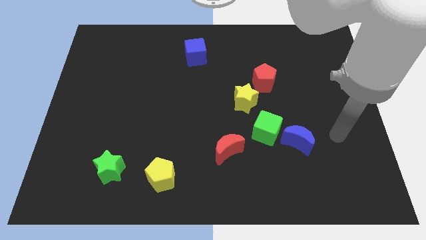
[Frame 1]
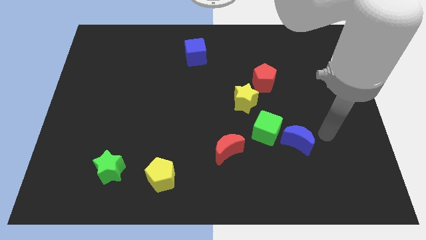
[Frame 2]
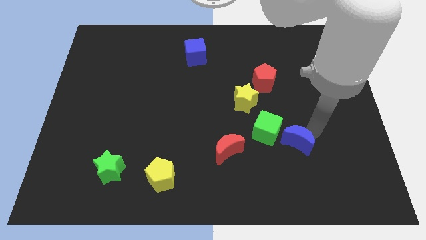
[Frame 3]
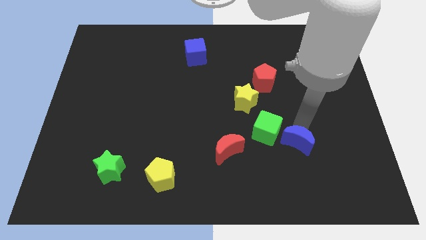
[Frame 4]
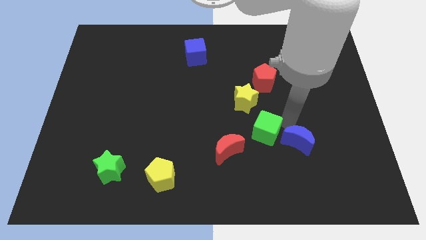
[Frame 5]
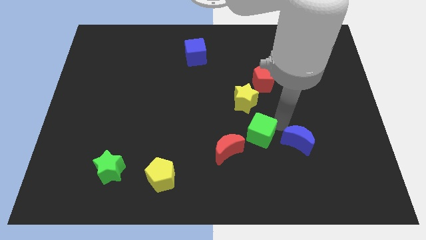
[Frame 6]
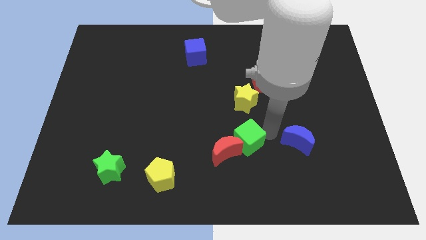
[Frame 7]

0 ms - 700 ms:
pull the blue moon apart from the green cube

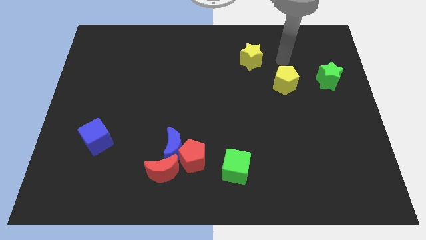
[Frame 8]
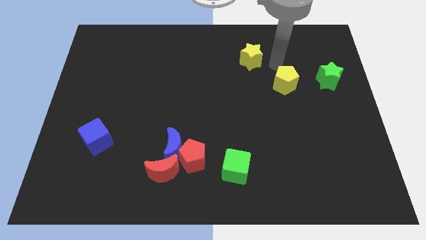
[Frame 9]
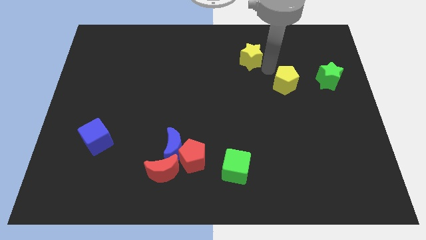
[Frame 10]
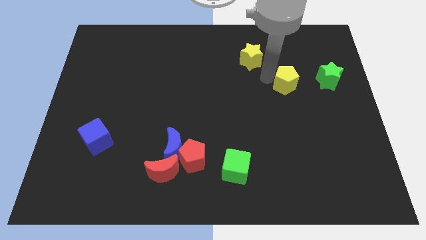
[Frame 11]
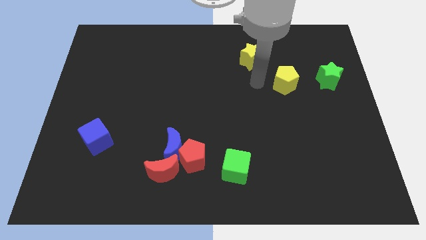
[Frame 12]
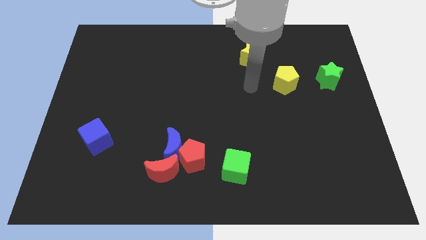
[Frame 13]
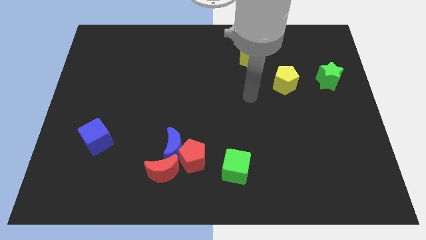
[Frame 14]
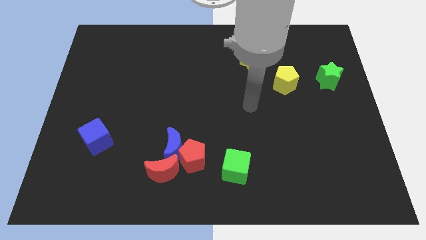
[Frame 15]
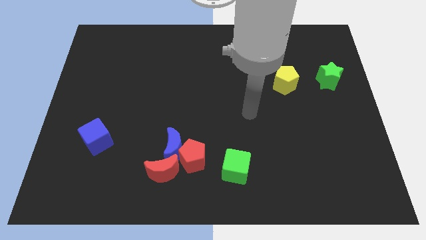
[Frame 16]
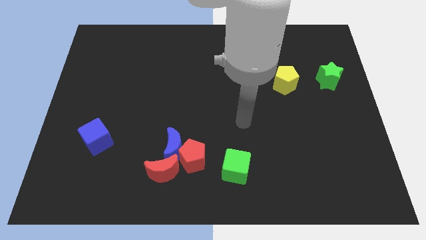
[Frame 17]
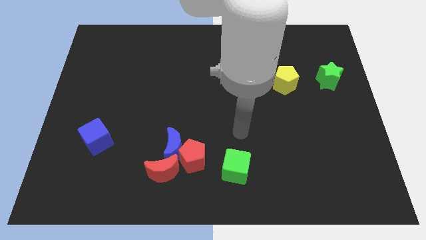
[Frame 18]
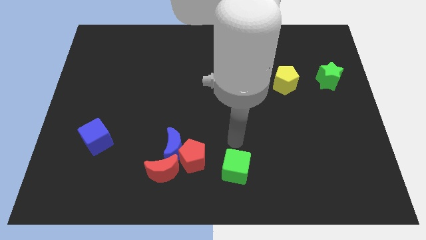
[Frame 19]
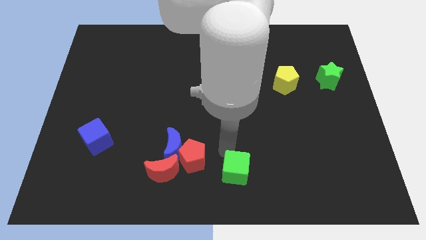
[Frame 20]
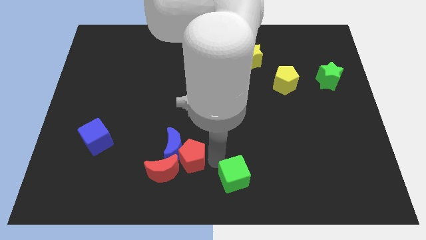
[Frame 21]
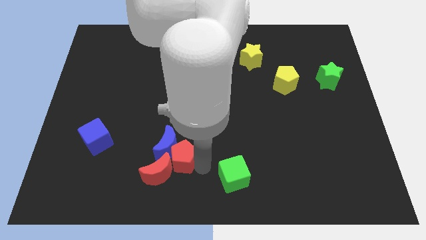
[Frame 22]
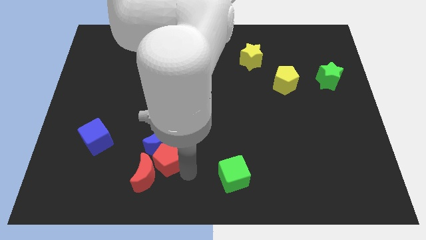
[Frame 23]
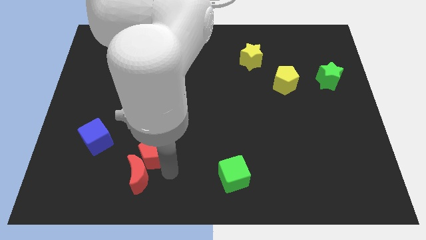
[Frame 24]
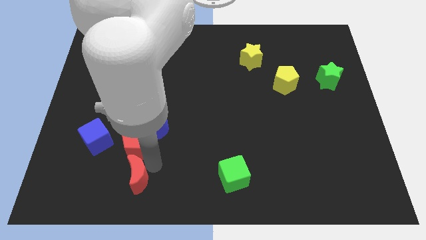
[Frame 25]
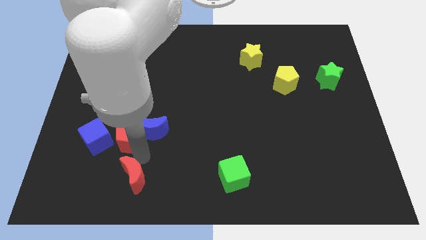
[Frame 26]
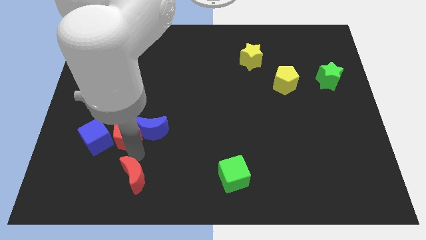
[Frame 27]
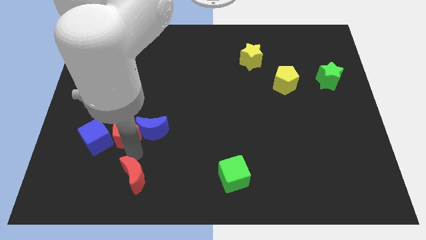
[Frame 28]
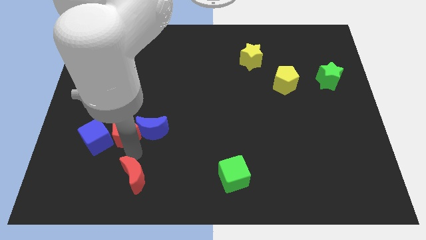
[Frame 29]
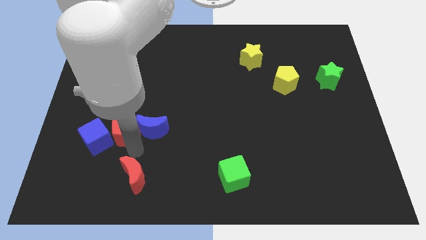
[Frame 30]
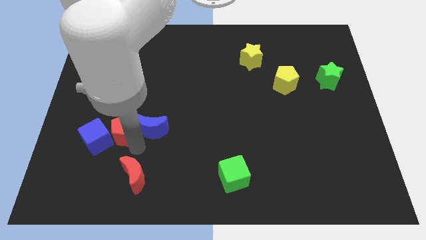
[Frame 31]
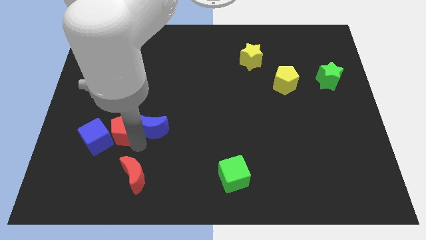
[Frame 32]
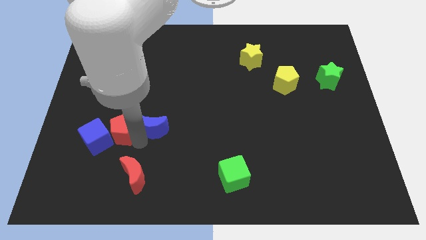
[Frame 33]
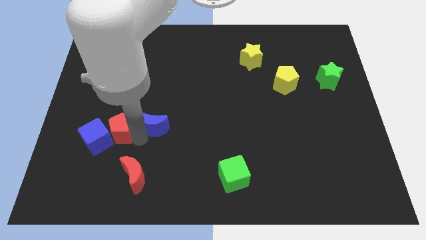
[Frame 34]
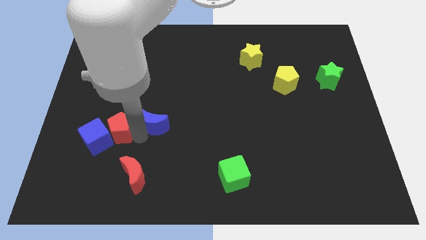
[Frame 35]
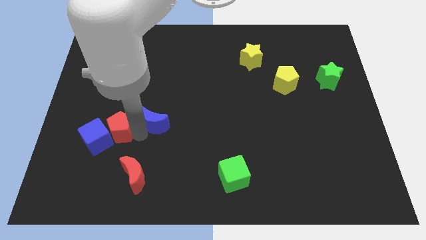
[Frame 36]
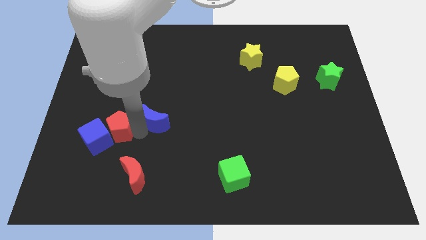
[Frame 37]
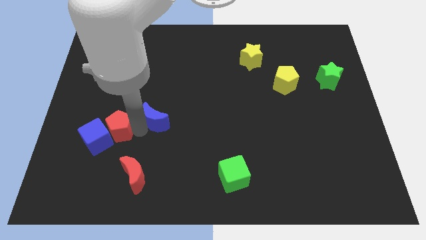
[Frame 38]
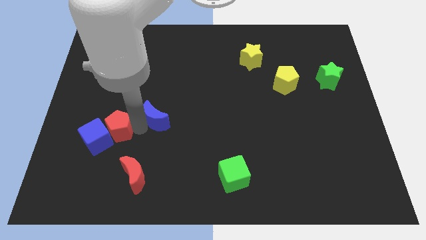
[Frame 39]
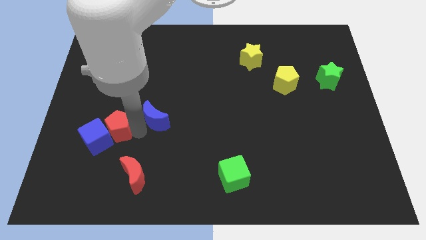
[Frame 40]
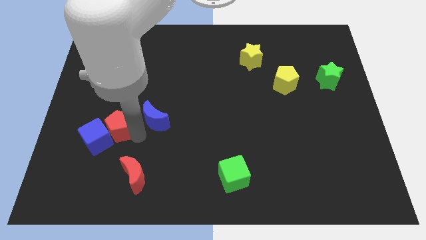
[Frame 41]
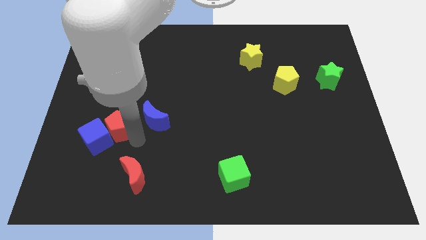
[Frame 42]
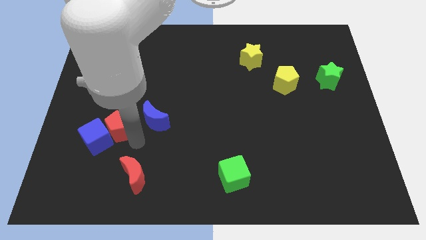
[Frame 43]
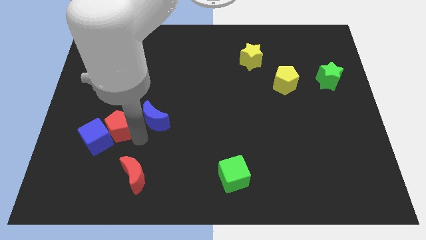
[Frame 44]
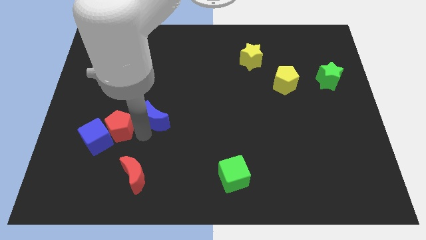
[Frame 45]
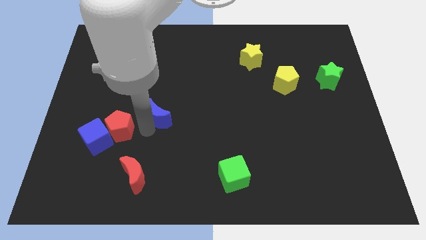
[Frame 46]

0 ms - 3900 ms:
separate the blue moon from the red pentagon and red moon

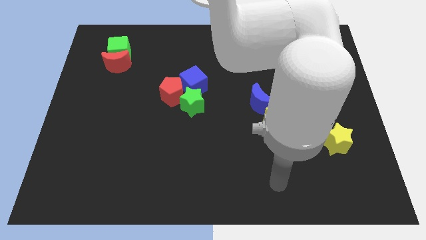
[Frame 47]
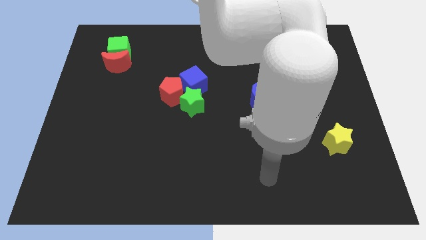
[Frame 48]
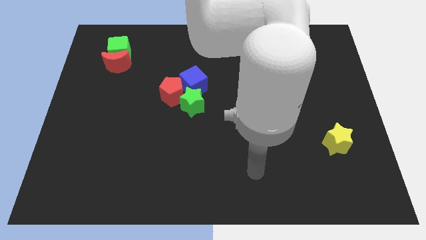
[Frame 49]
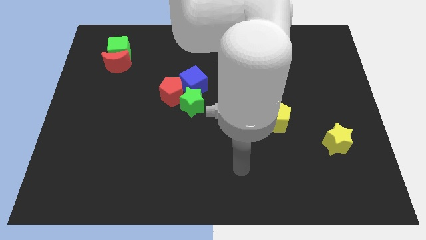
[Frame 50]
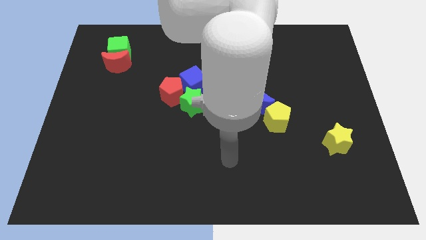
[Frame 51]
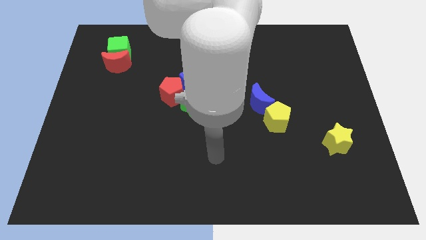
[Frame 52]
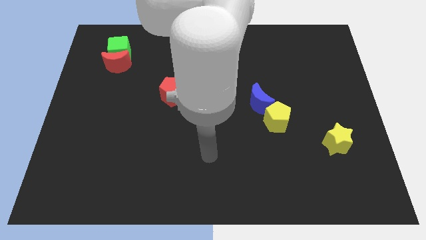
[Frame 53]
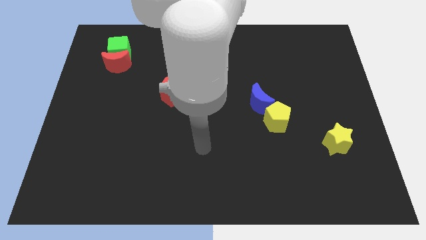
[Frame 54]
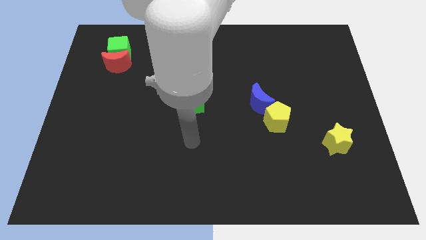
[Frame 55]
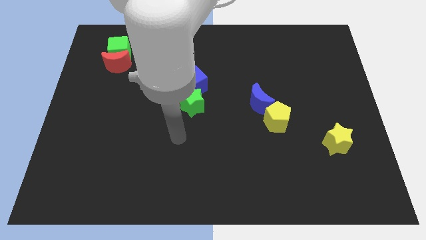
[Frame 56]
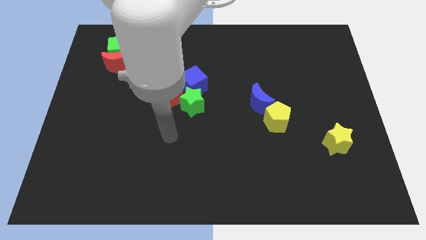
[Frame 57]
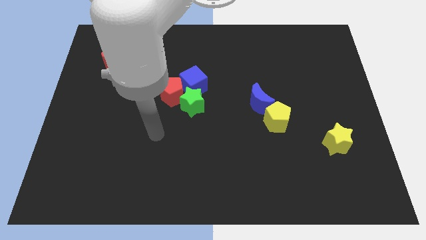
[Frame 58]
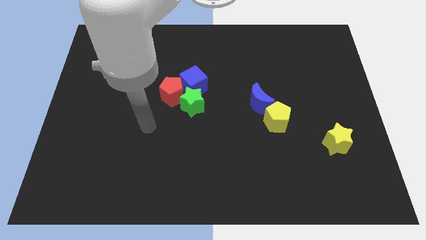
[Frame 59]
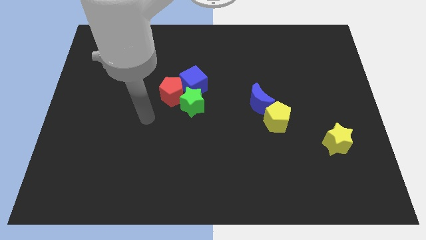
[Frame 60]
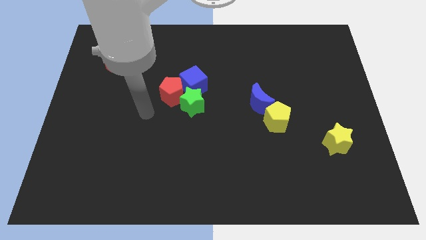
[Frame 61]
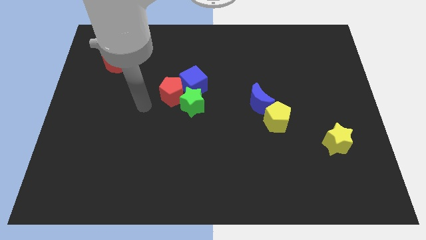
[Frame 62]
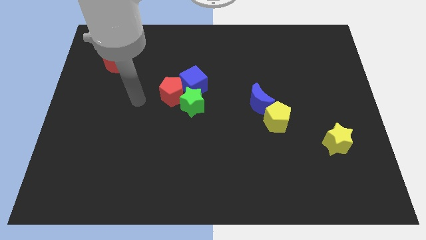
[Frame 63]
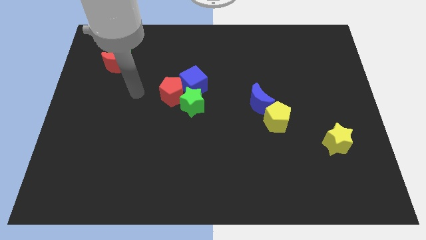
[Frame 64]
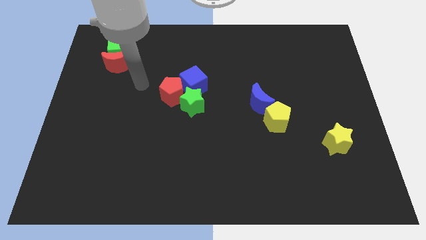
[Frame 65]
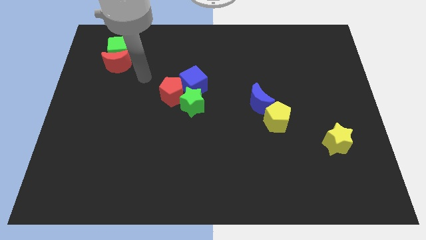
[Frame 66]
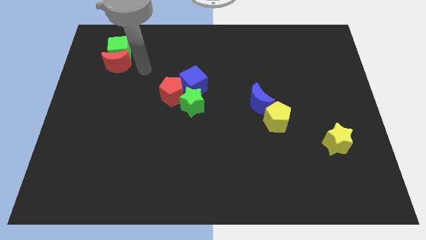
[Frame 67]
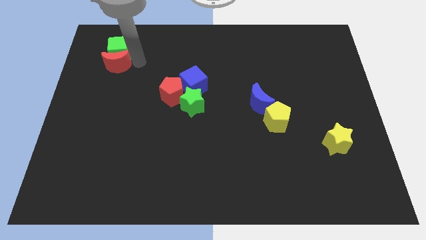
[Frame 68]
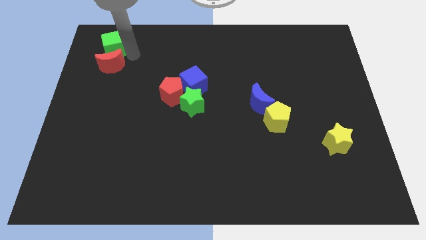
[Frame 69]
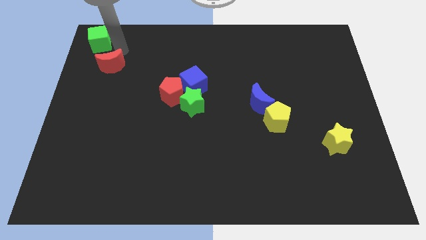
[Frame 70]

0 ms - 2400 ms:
pull the red moon apart from the green cube

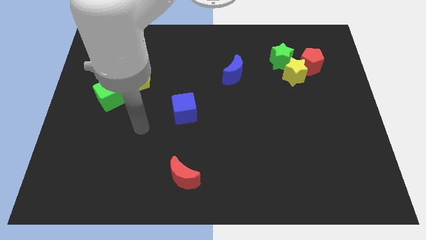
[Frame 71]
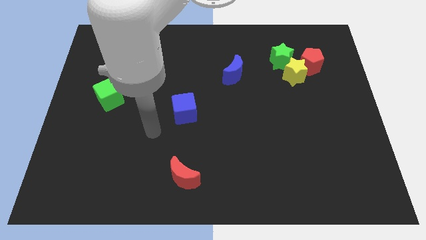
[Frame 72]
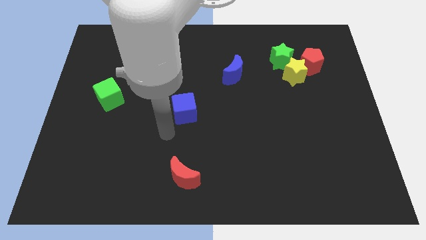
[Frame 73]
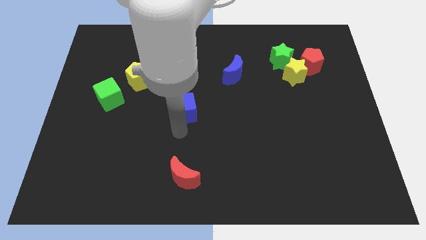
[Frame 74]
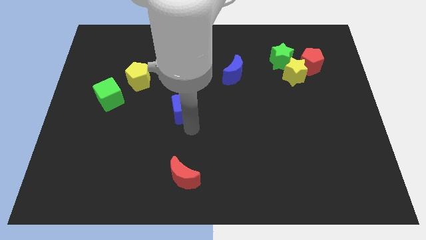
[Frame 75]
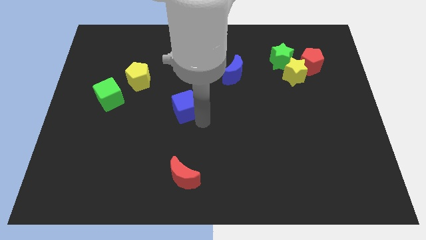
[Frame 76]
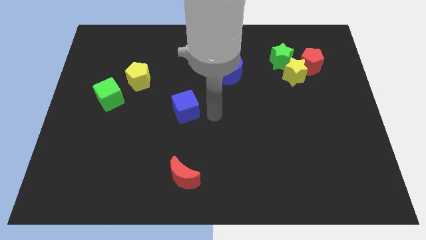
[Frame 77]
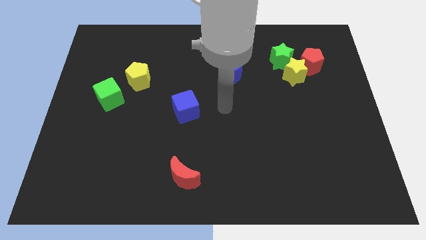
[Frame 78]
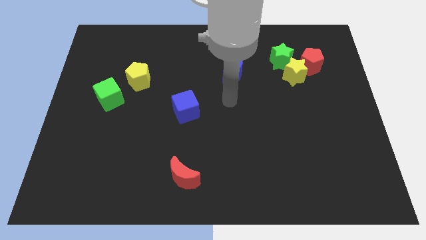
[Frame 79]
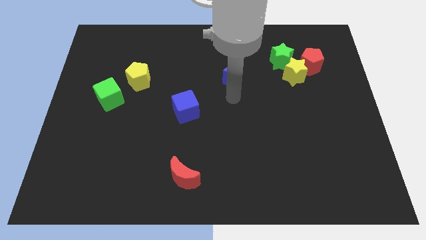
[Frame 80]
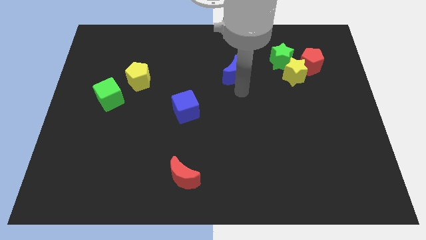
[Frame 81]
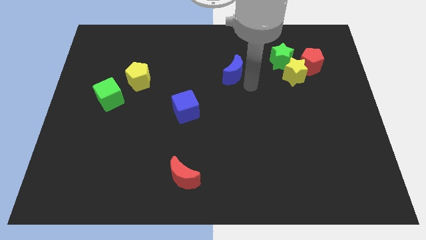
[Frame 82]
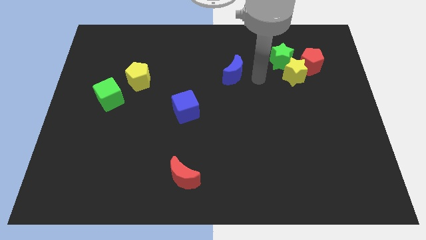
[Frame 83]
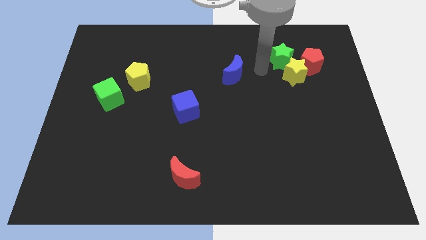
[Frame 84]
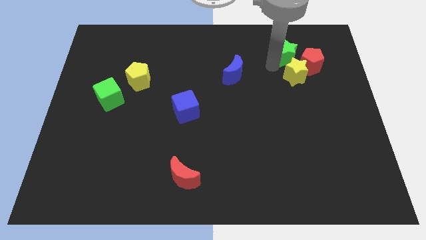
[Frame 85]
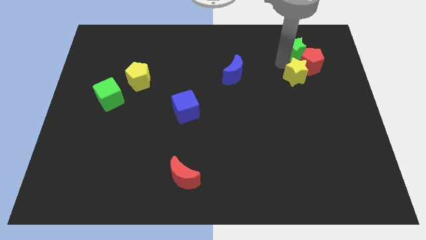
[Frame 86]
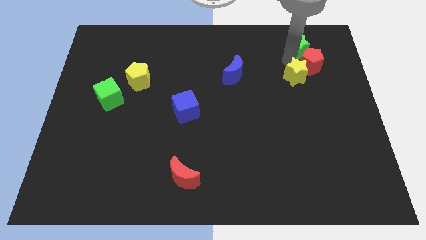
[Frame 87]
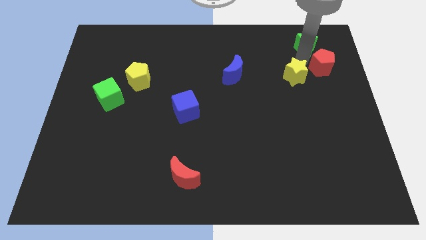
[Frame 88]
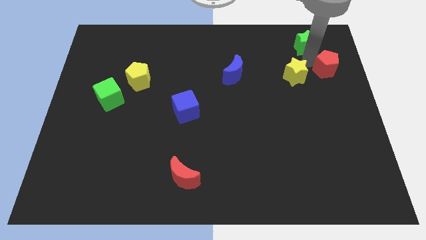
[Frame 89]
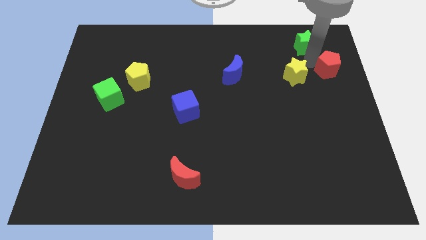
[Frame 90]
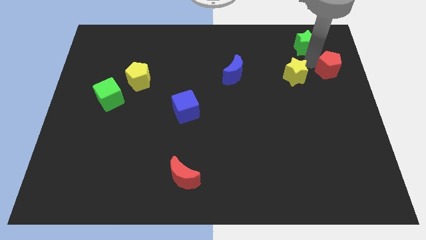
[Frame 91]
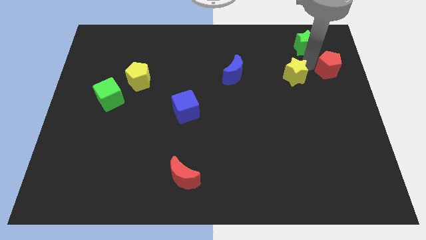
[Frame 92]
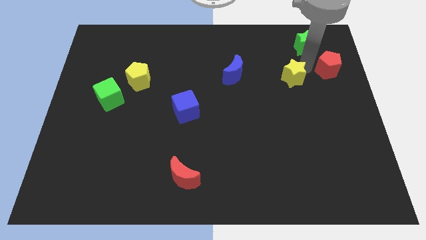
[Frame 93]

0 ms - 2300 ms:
separate the yellow star from the red pentagon and green star
